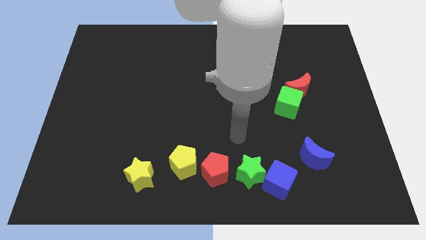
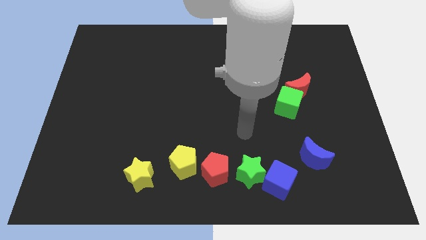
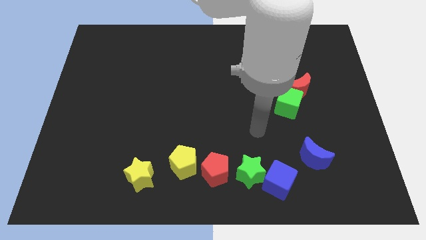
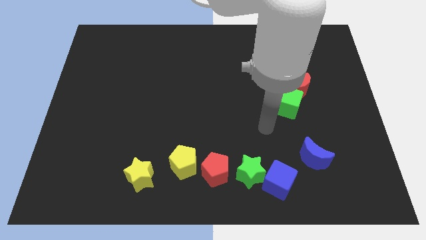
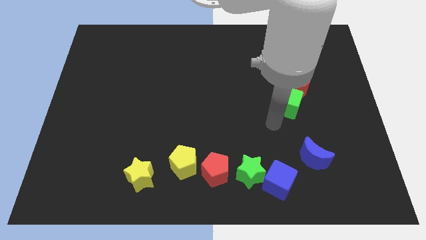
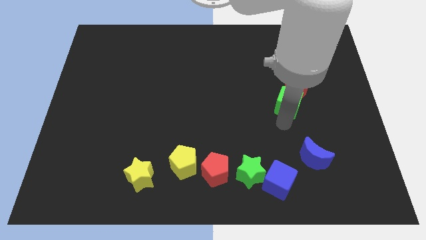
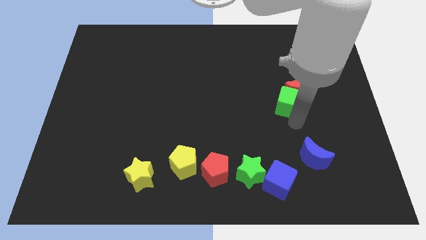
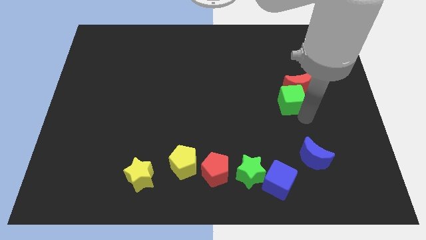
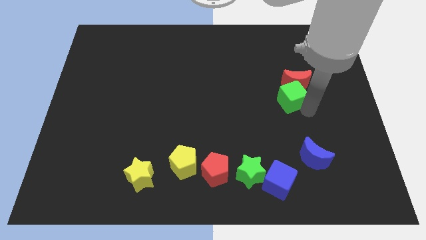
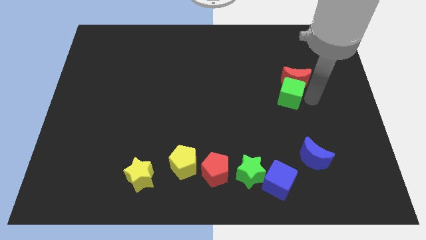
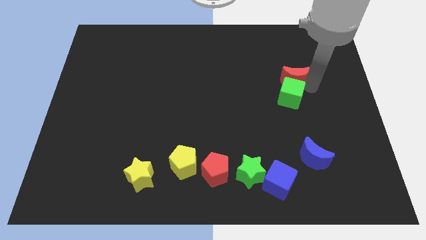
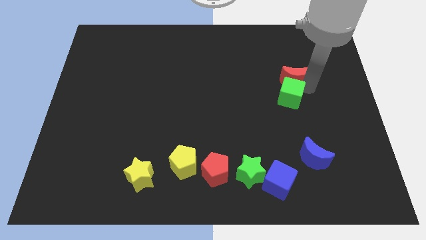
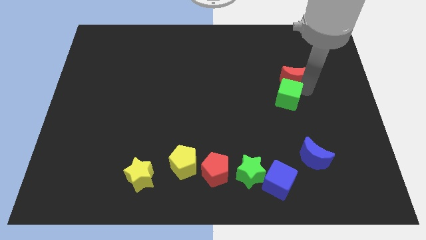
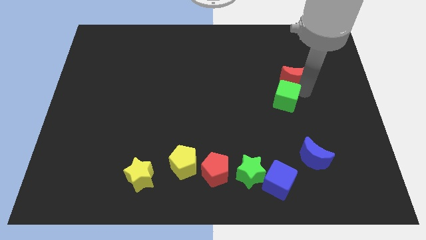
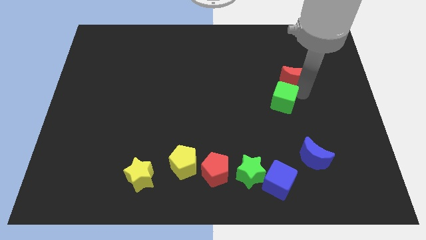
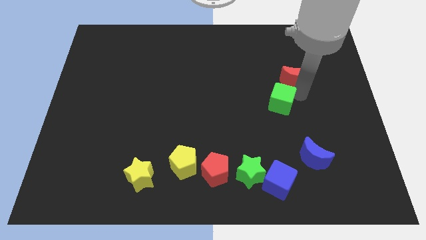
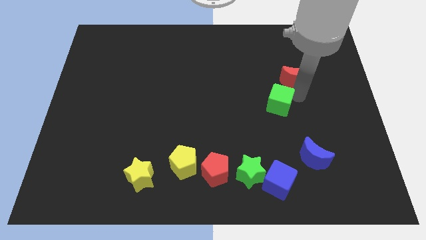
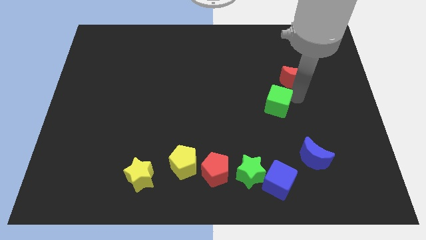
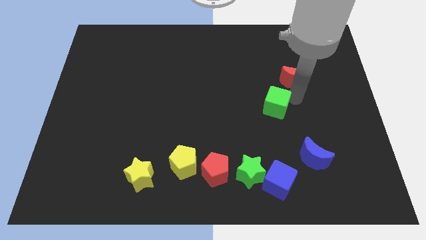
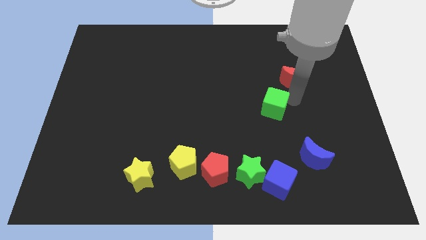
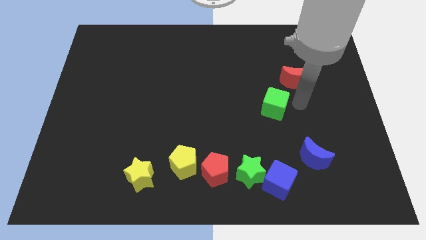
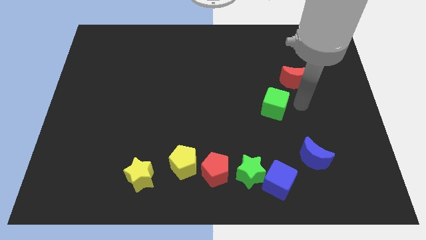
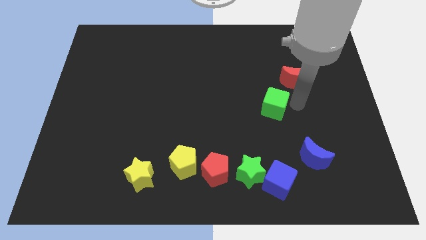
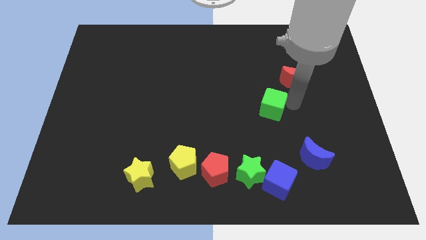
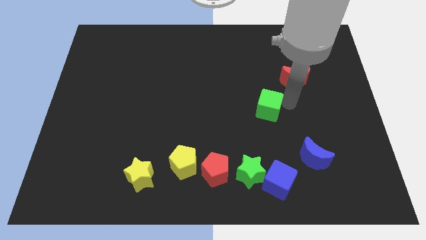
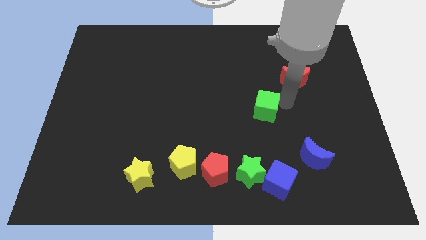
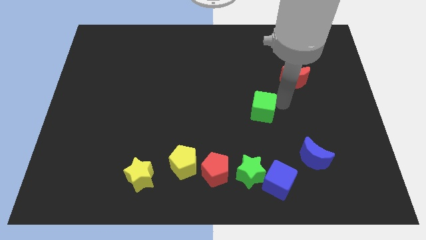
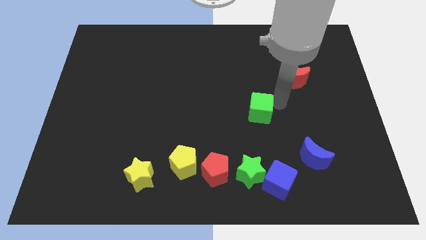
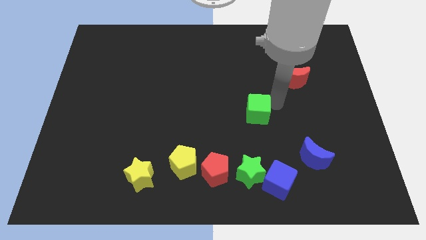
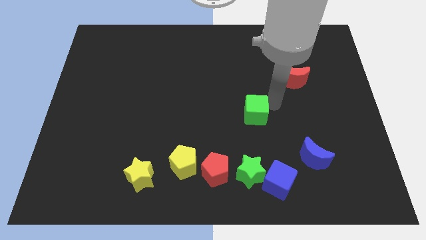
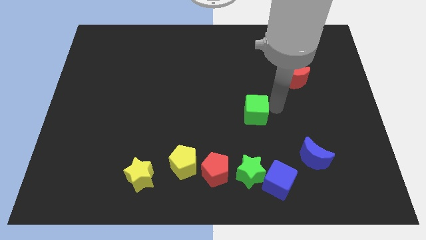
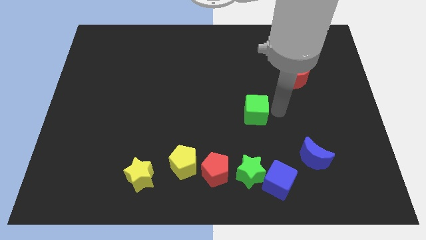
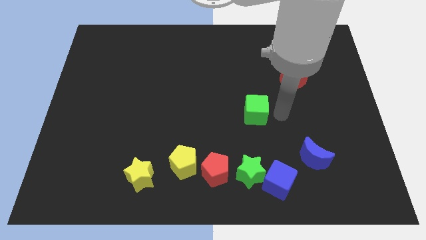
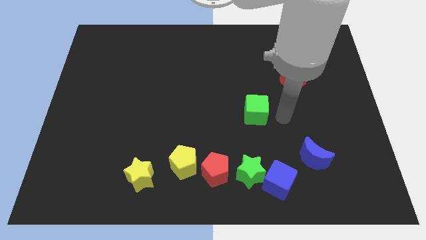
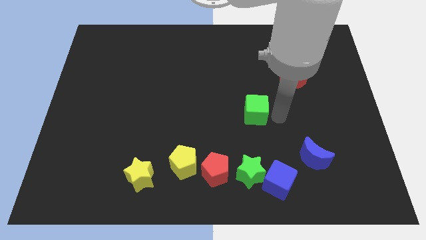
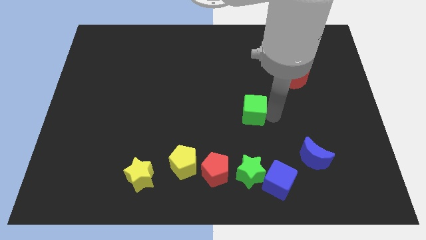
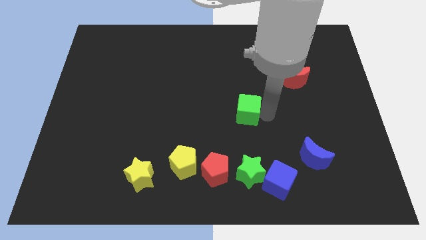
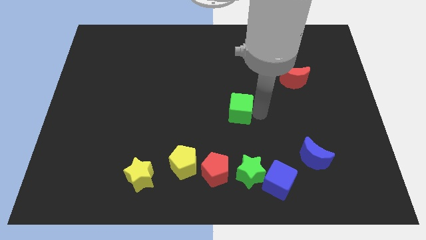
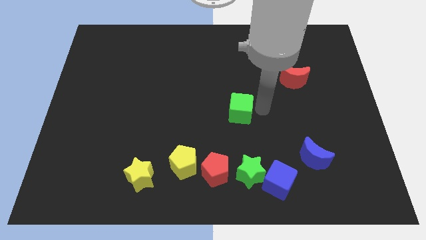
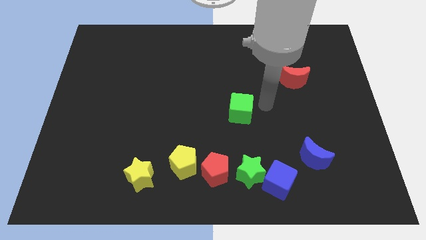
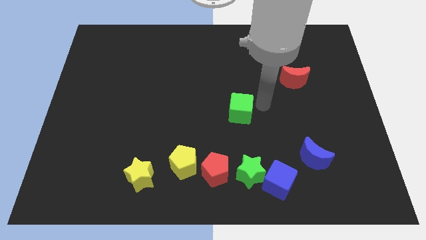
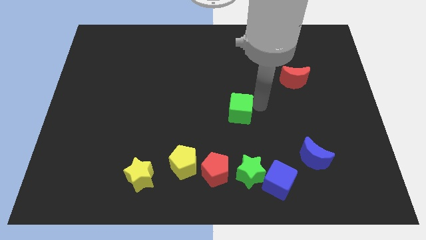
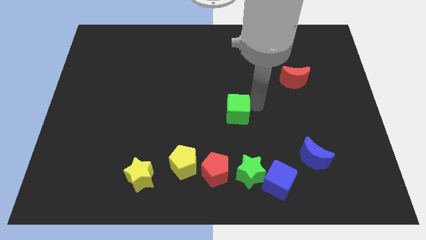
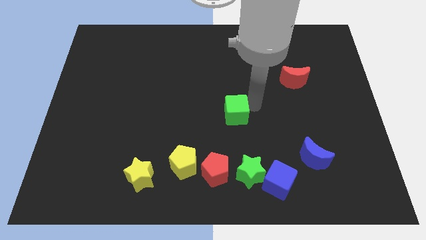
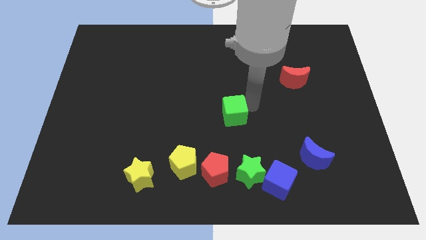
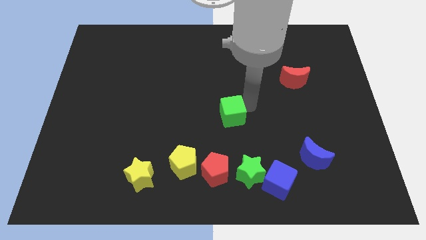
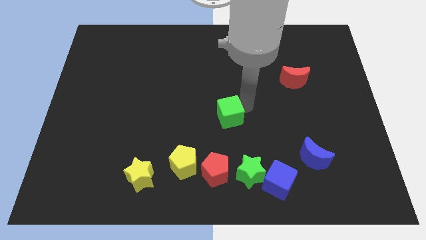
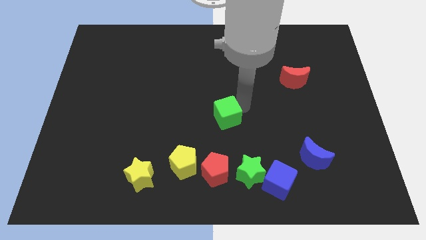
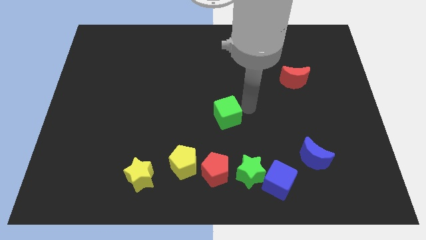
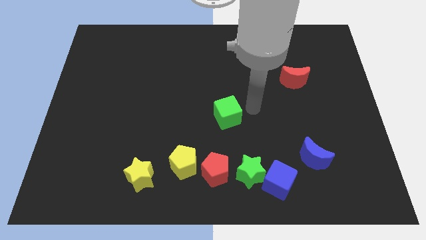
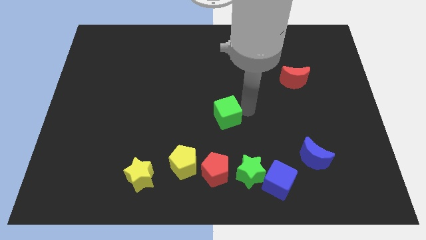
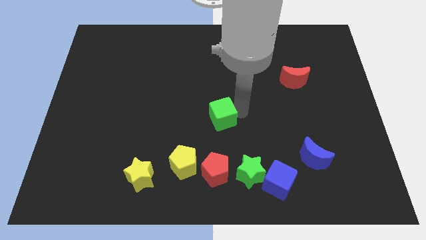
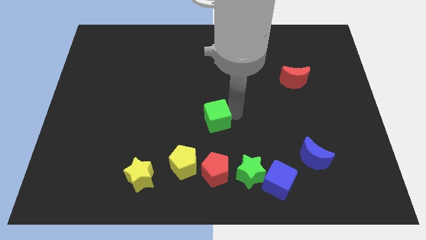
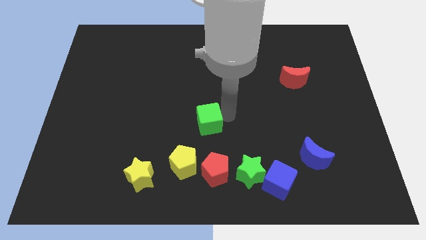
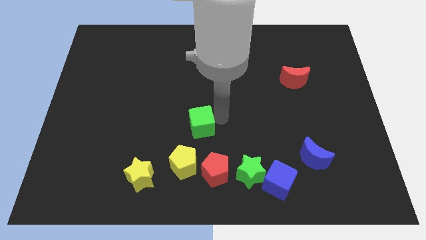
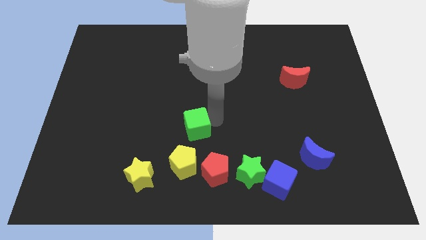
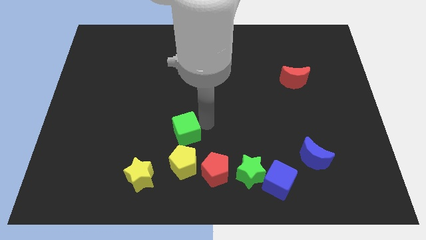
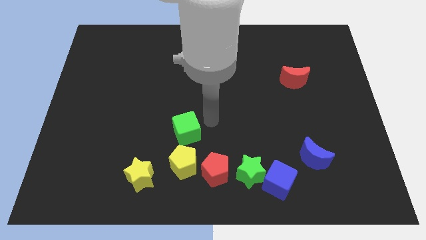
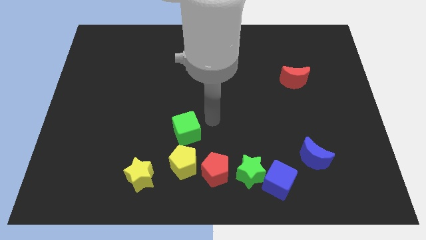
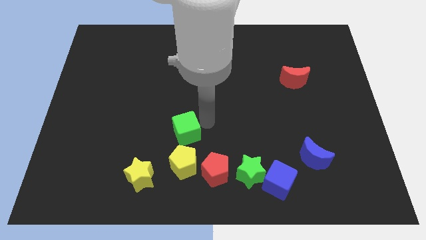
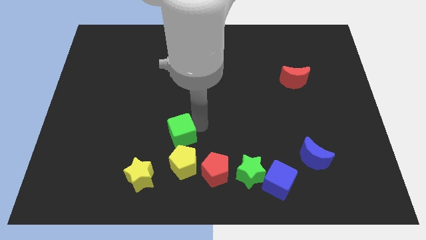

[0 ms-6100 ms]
slide the green cube diagonally up and to the left of the yellow pentagon
